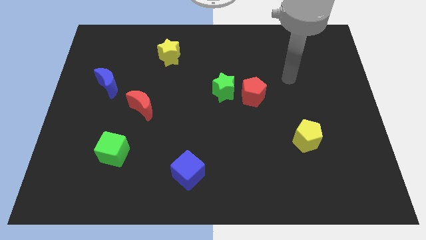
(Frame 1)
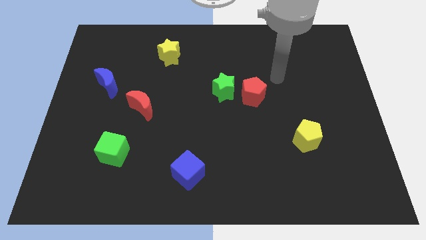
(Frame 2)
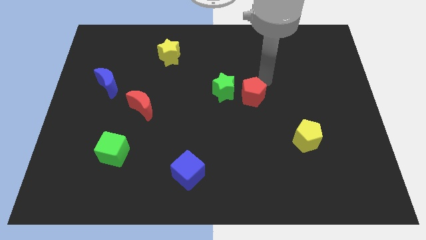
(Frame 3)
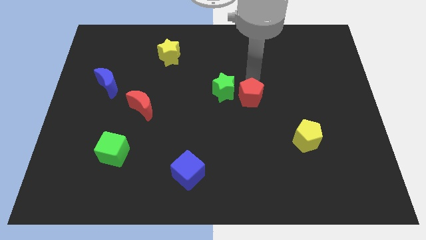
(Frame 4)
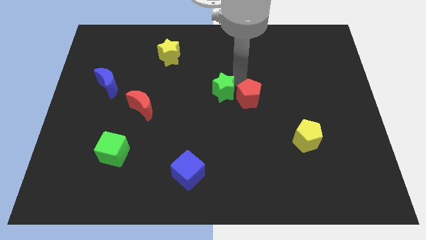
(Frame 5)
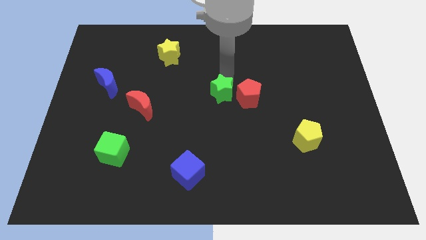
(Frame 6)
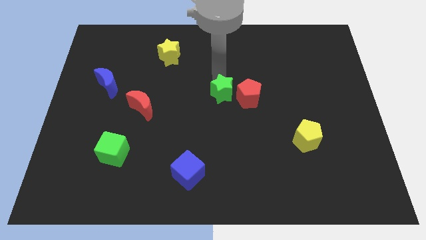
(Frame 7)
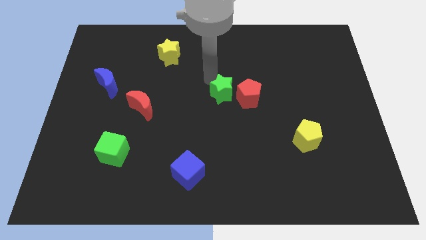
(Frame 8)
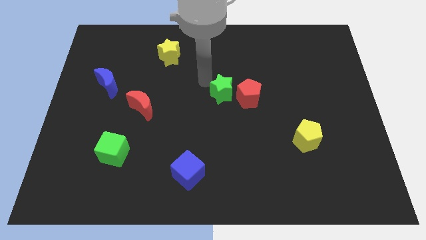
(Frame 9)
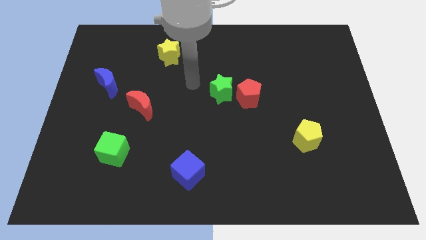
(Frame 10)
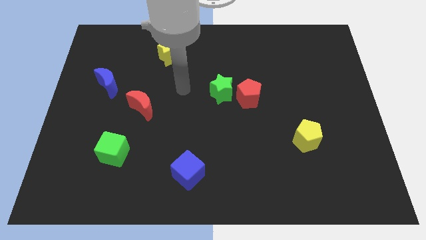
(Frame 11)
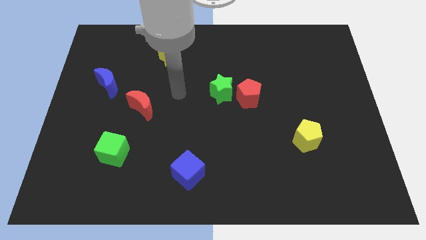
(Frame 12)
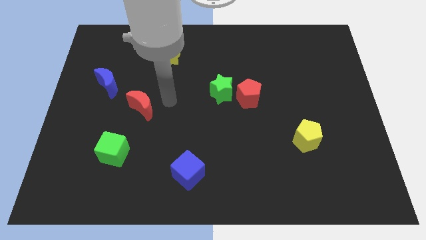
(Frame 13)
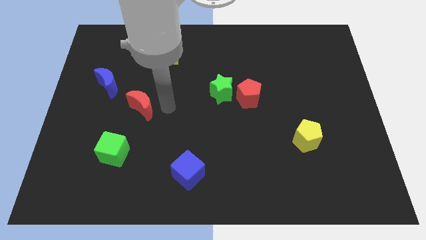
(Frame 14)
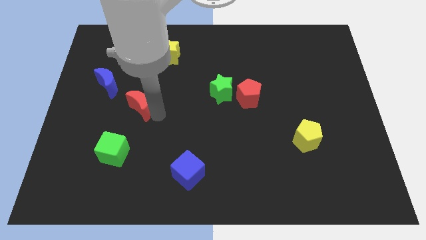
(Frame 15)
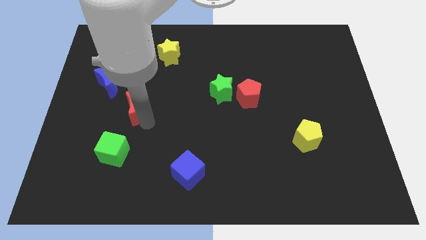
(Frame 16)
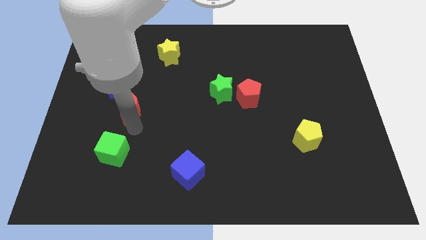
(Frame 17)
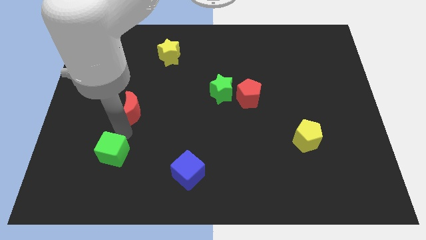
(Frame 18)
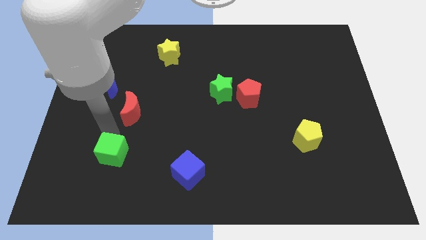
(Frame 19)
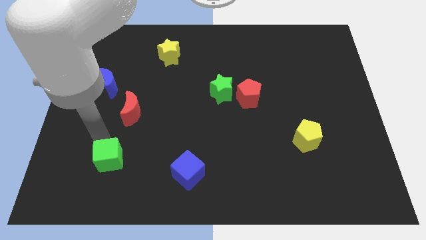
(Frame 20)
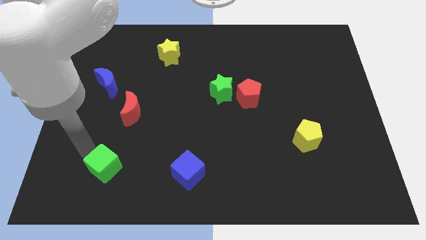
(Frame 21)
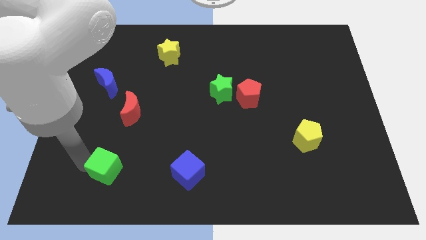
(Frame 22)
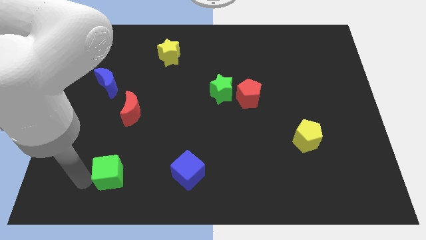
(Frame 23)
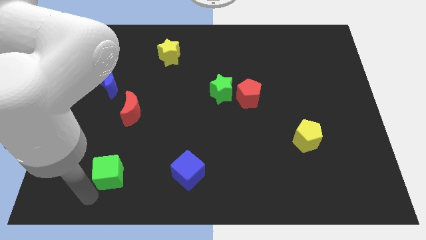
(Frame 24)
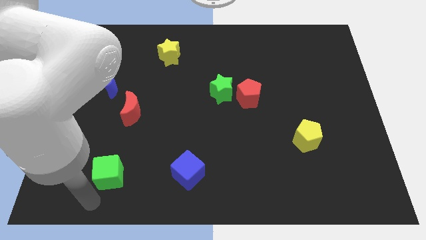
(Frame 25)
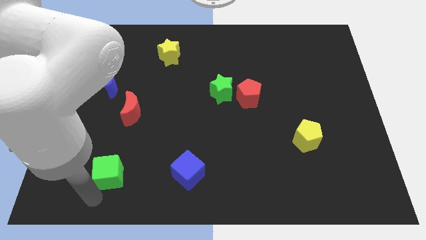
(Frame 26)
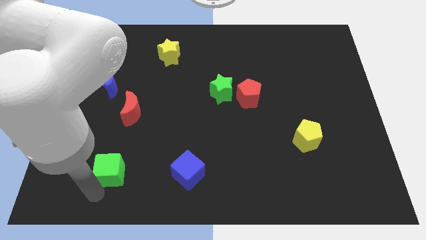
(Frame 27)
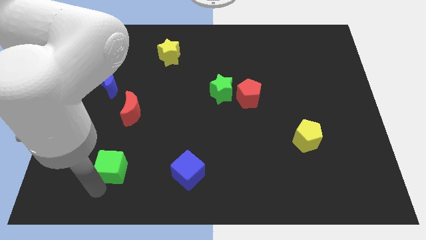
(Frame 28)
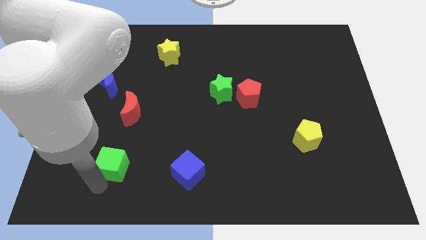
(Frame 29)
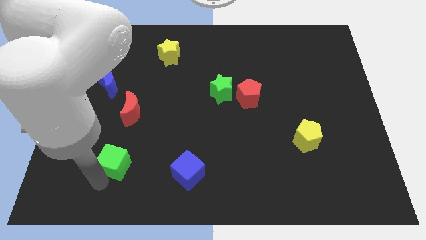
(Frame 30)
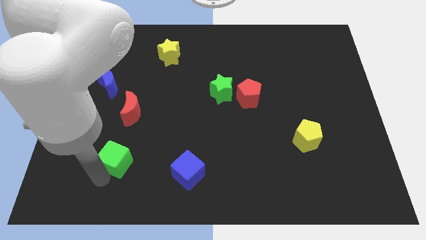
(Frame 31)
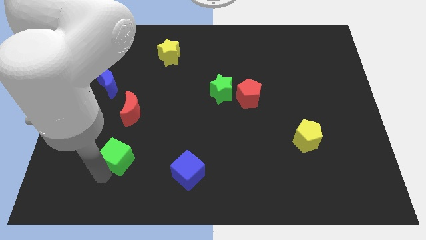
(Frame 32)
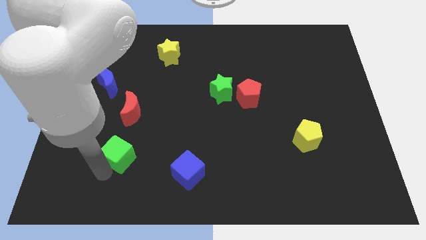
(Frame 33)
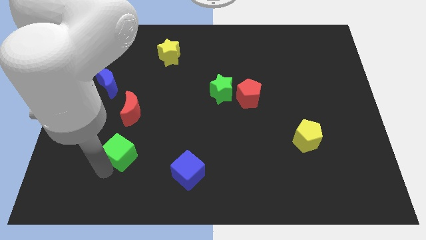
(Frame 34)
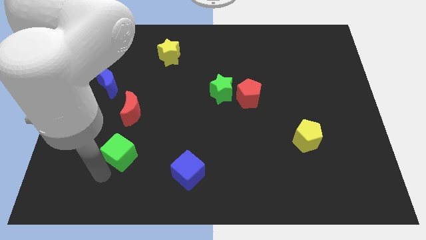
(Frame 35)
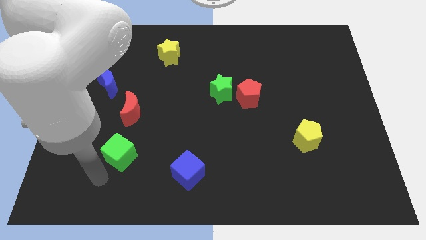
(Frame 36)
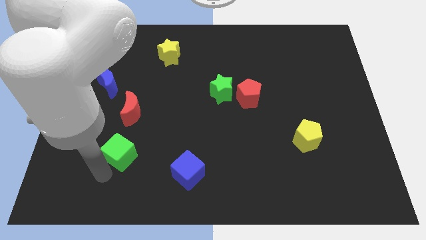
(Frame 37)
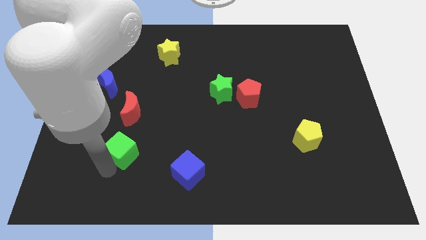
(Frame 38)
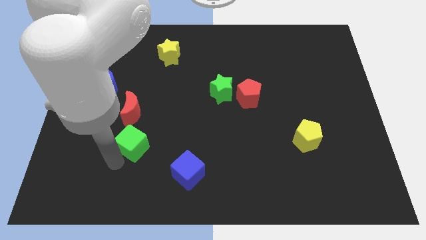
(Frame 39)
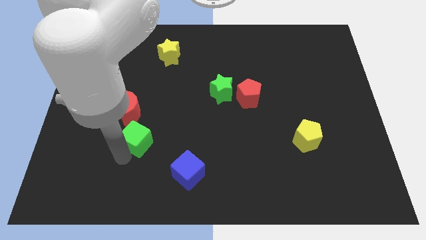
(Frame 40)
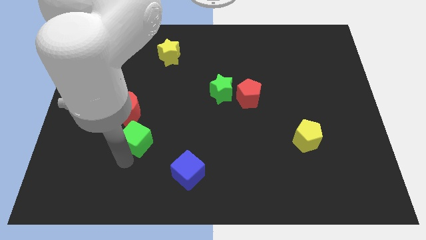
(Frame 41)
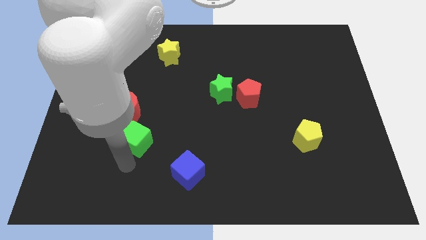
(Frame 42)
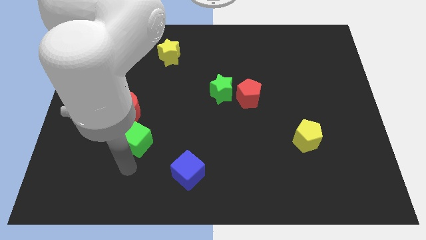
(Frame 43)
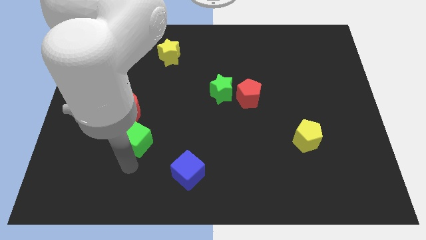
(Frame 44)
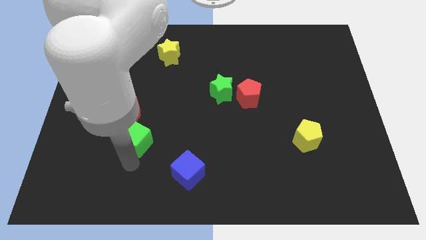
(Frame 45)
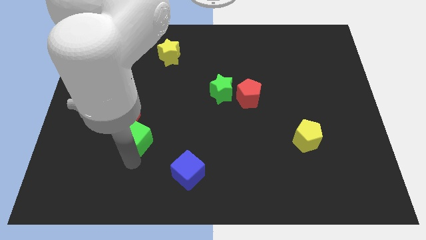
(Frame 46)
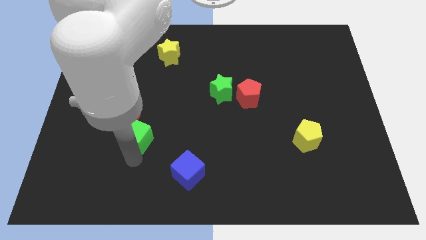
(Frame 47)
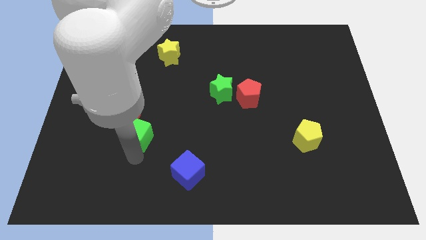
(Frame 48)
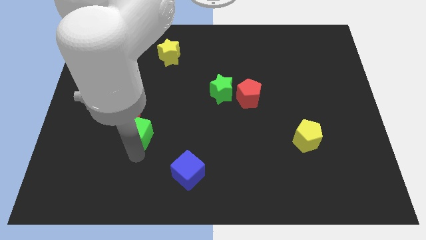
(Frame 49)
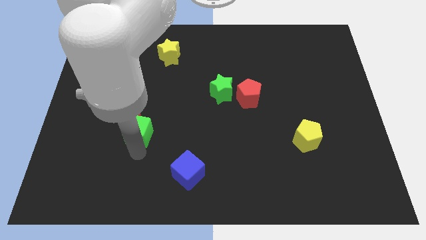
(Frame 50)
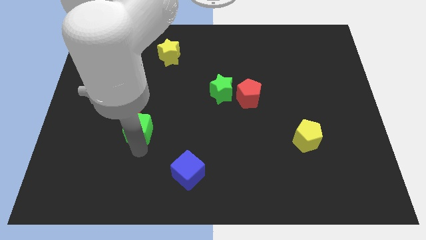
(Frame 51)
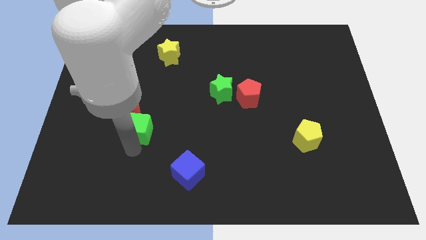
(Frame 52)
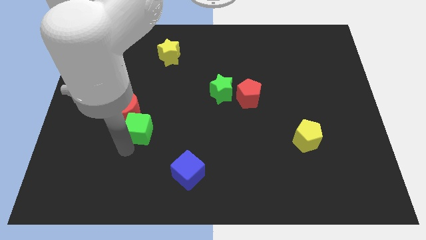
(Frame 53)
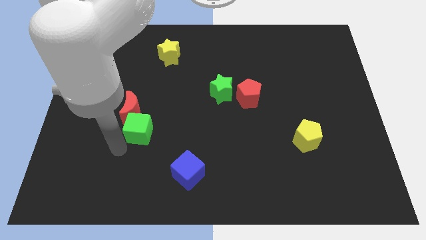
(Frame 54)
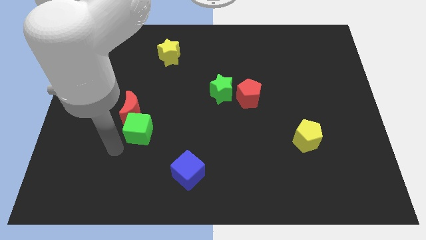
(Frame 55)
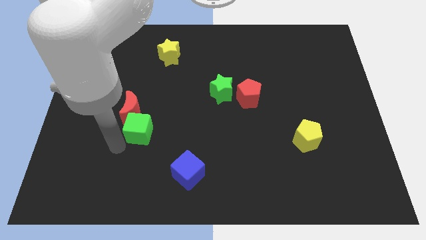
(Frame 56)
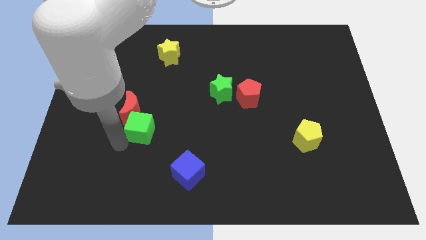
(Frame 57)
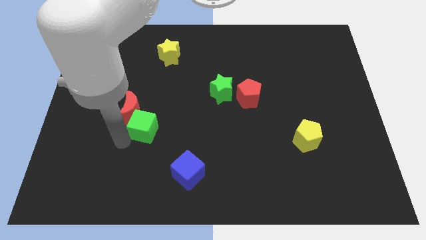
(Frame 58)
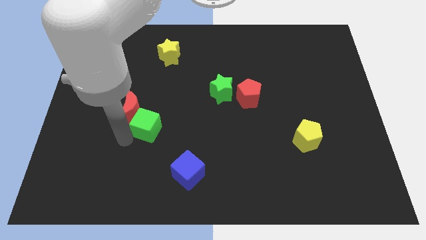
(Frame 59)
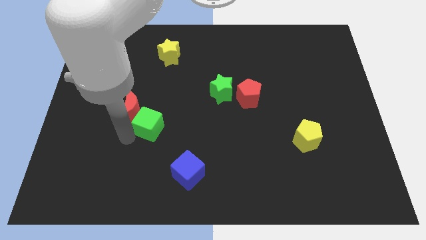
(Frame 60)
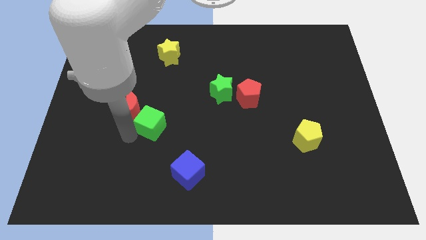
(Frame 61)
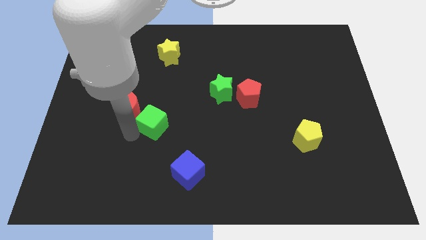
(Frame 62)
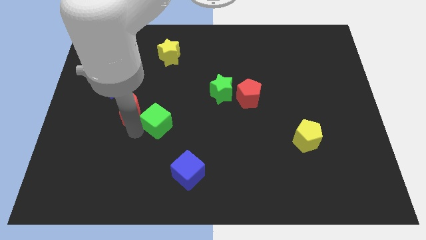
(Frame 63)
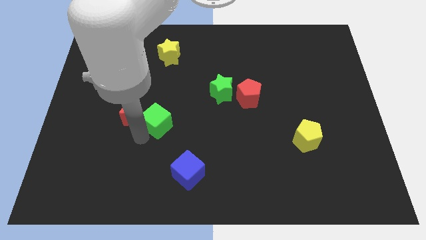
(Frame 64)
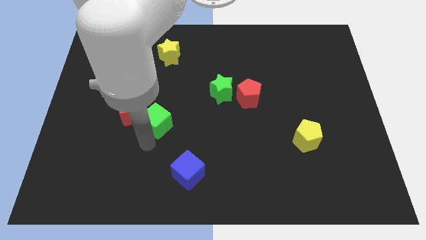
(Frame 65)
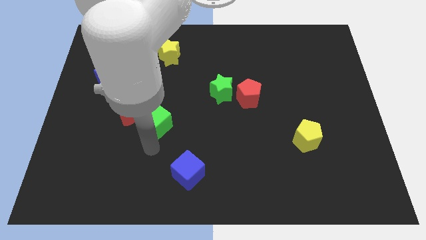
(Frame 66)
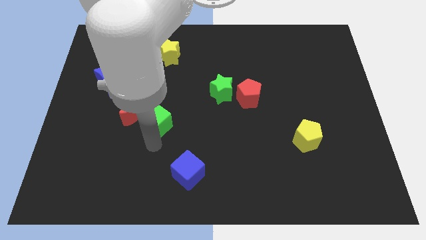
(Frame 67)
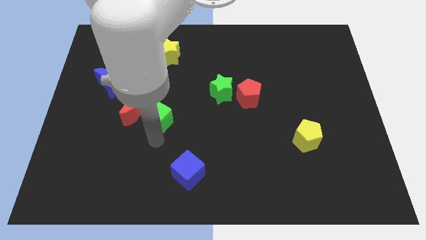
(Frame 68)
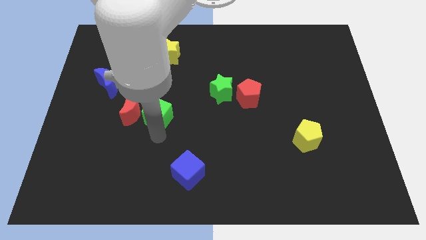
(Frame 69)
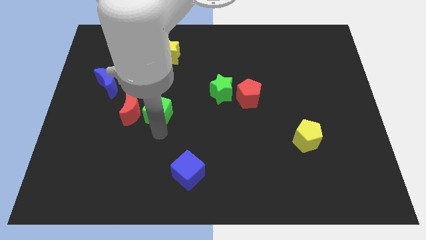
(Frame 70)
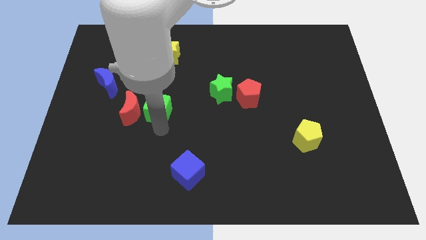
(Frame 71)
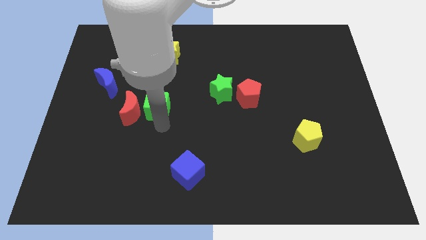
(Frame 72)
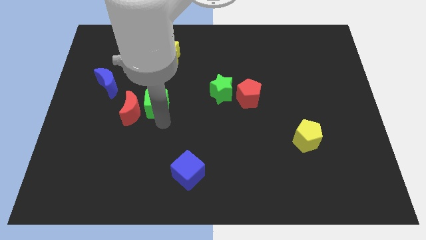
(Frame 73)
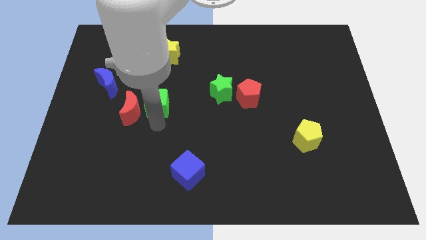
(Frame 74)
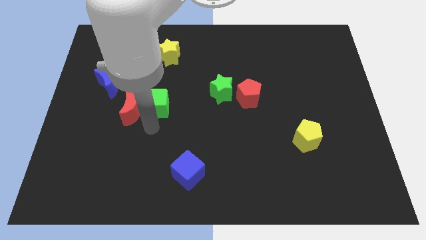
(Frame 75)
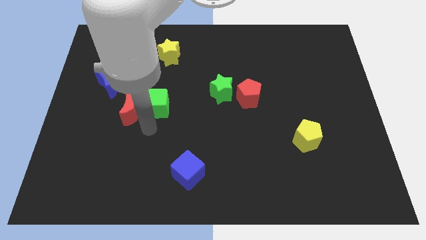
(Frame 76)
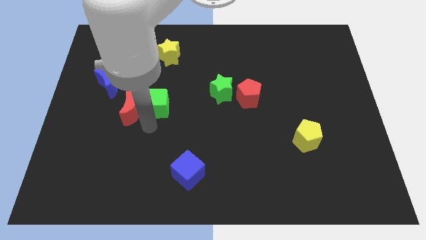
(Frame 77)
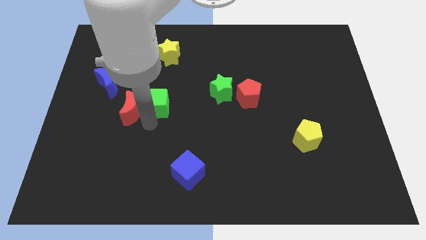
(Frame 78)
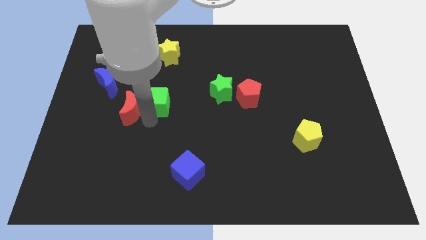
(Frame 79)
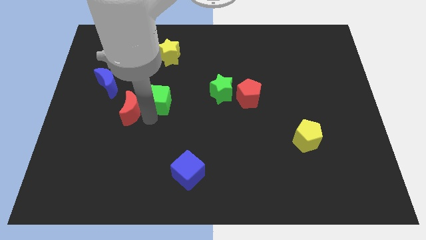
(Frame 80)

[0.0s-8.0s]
move the green cube to the bottom of the yellow star
